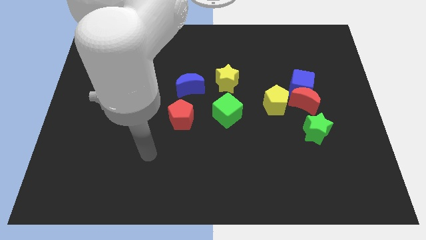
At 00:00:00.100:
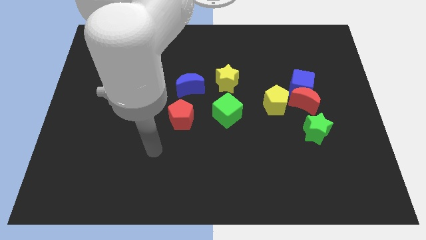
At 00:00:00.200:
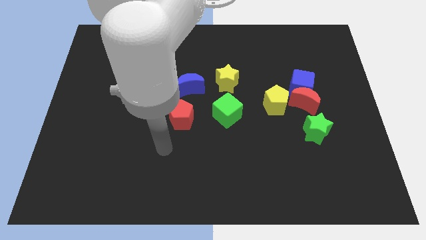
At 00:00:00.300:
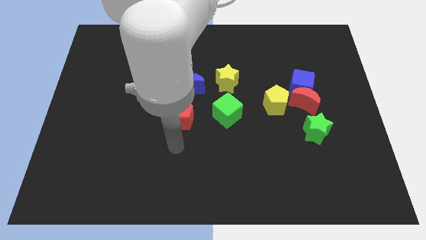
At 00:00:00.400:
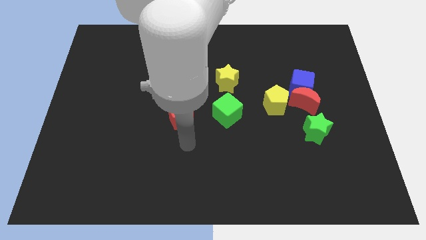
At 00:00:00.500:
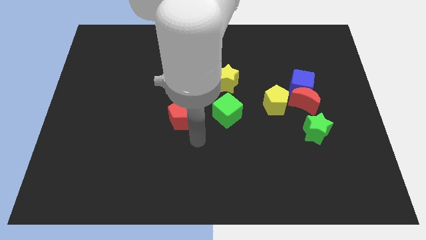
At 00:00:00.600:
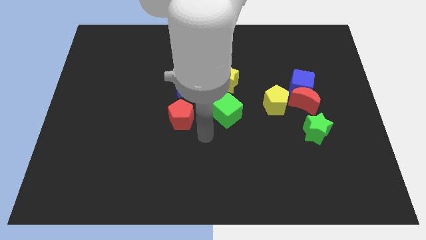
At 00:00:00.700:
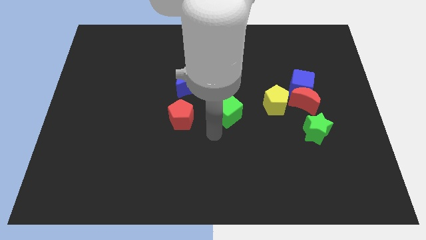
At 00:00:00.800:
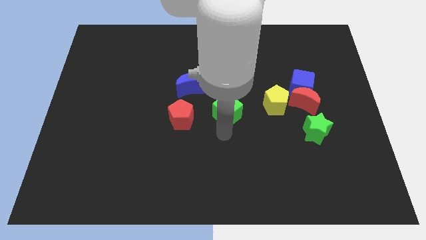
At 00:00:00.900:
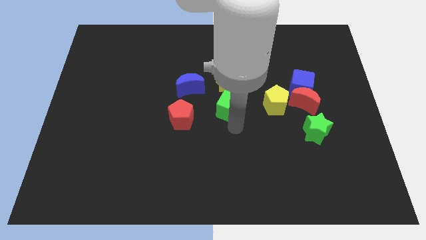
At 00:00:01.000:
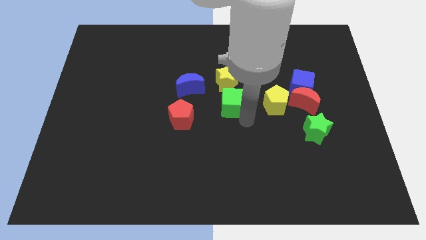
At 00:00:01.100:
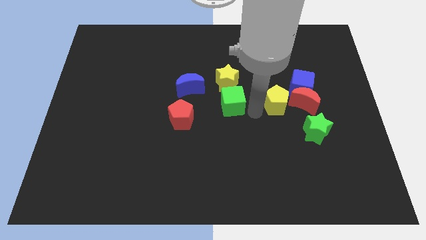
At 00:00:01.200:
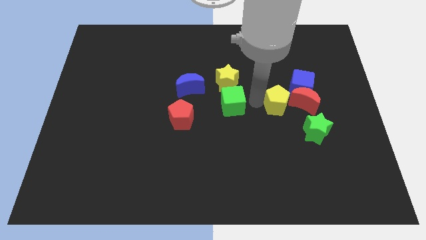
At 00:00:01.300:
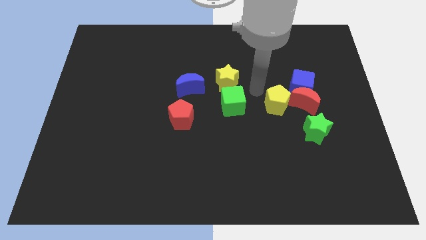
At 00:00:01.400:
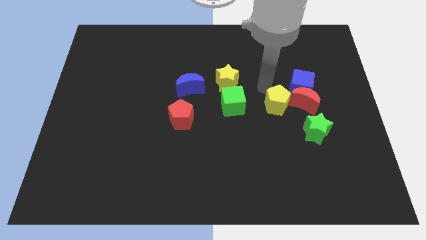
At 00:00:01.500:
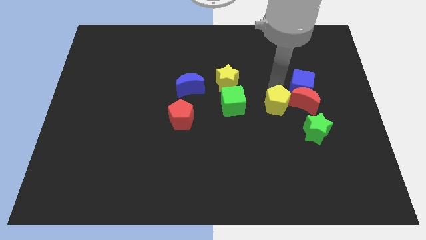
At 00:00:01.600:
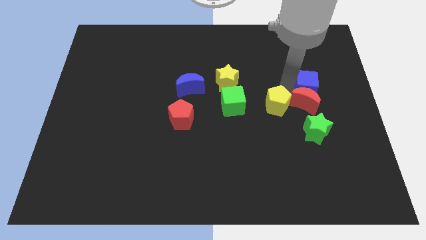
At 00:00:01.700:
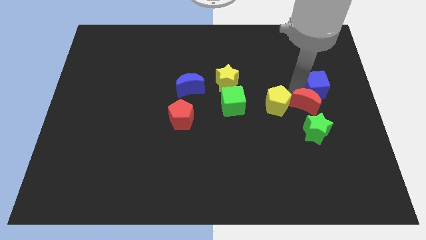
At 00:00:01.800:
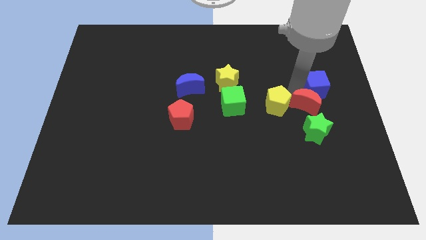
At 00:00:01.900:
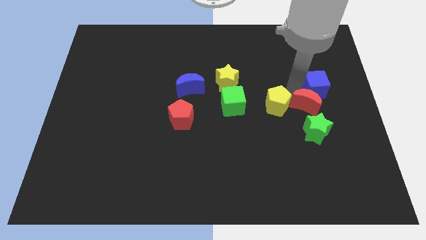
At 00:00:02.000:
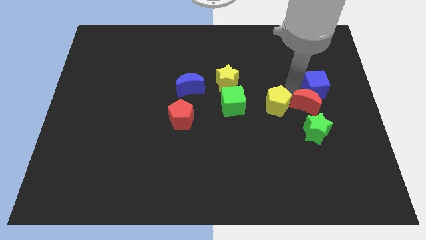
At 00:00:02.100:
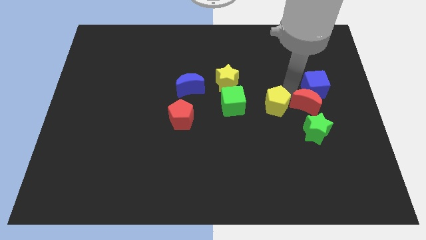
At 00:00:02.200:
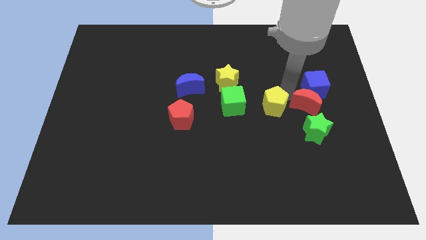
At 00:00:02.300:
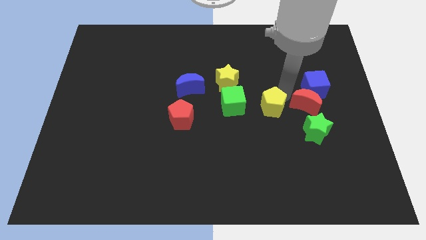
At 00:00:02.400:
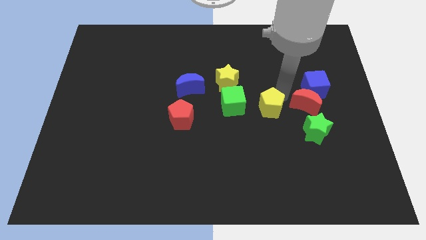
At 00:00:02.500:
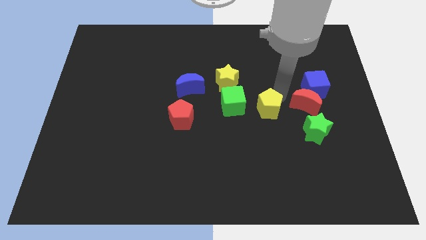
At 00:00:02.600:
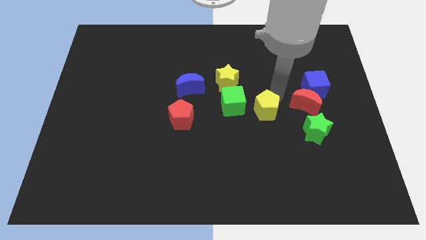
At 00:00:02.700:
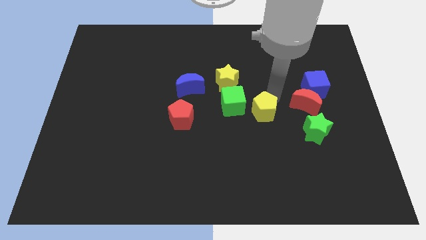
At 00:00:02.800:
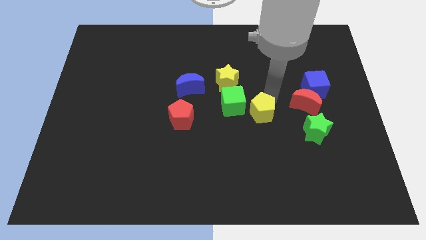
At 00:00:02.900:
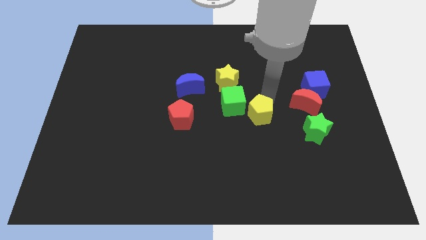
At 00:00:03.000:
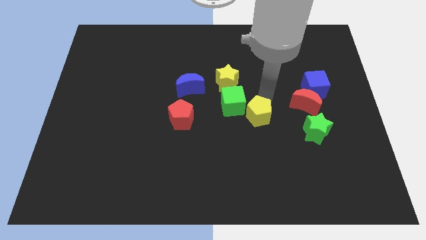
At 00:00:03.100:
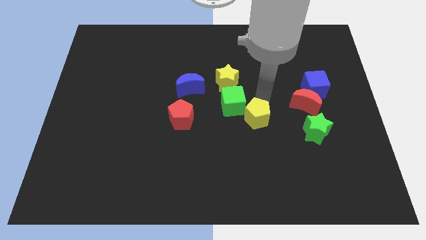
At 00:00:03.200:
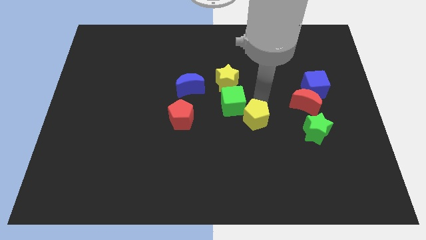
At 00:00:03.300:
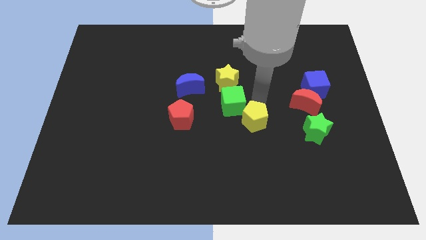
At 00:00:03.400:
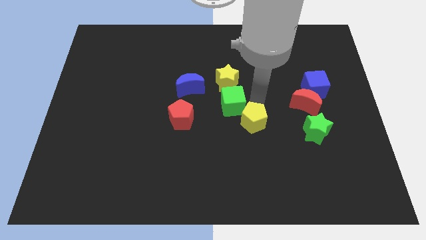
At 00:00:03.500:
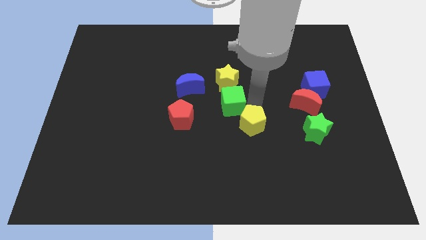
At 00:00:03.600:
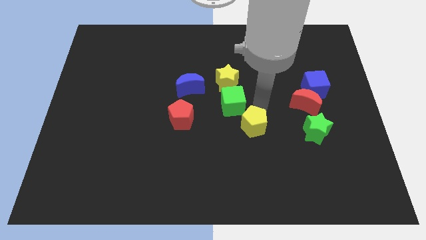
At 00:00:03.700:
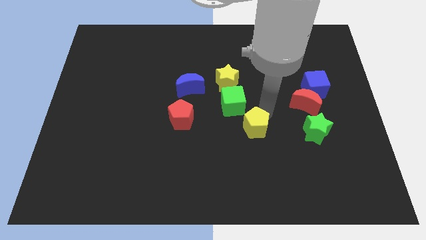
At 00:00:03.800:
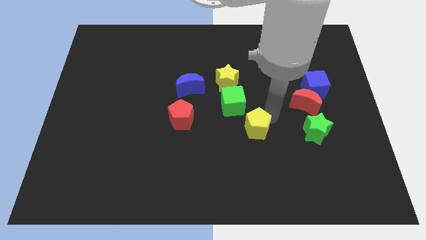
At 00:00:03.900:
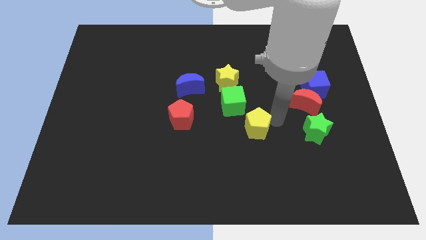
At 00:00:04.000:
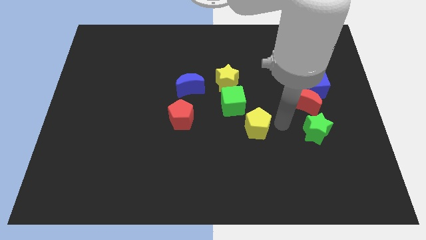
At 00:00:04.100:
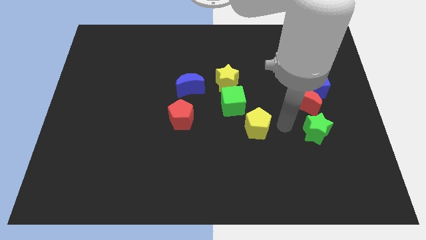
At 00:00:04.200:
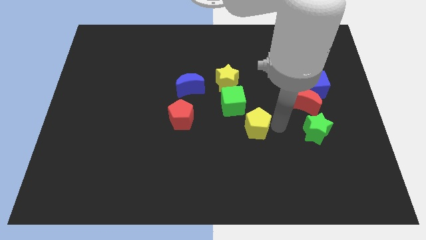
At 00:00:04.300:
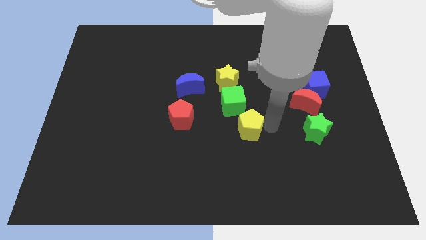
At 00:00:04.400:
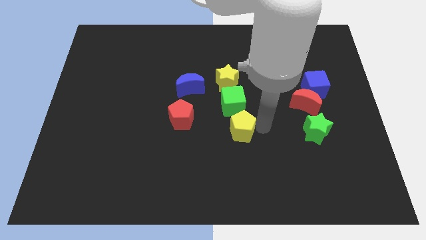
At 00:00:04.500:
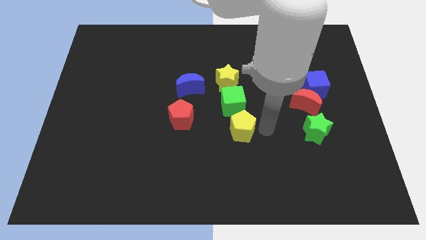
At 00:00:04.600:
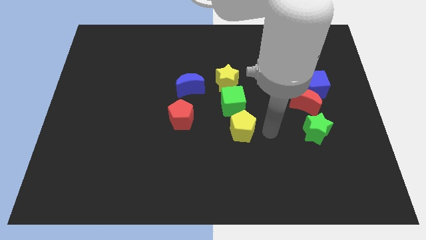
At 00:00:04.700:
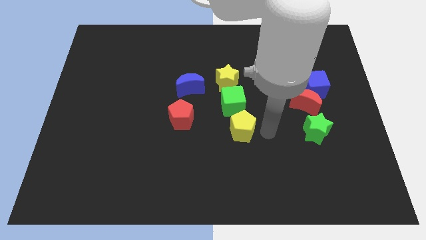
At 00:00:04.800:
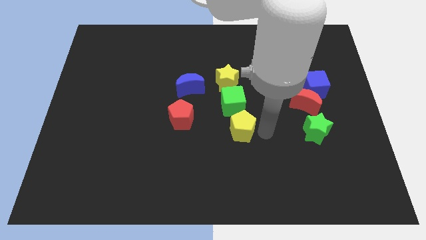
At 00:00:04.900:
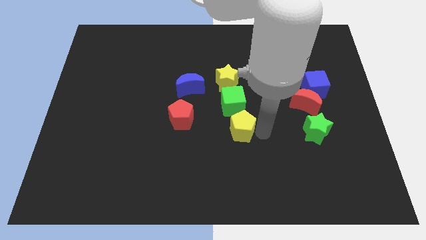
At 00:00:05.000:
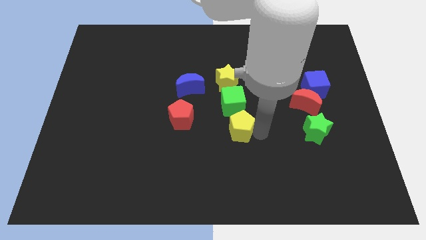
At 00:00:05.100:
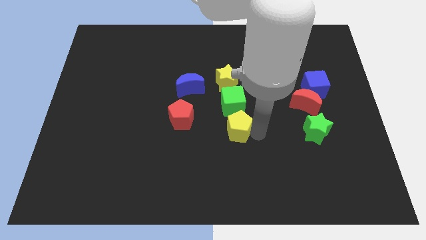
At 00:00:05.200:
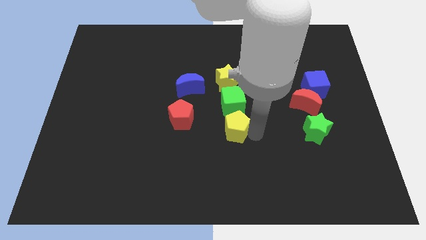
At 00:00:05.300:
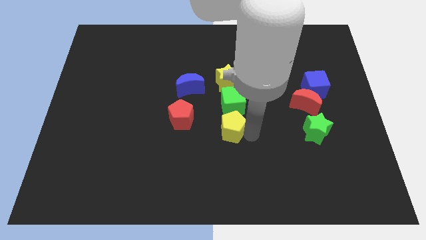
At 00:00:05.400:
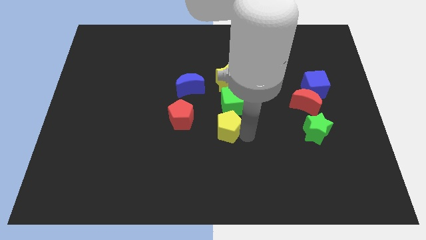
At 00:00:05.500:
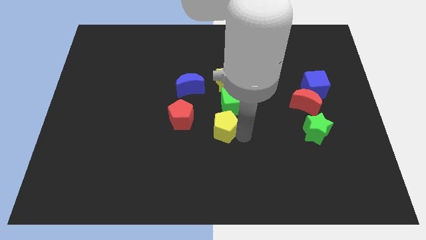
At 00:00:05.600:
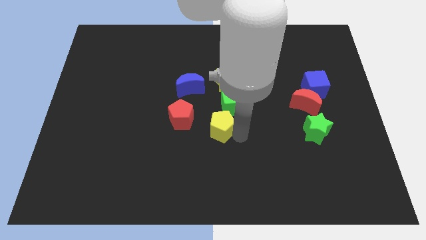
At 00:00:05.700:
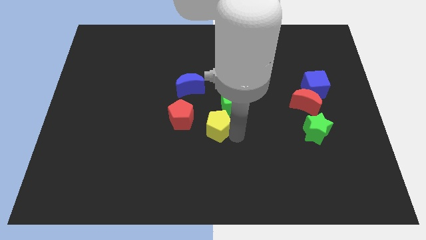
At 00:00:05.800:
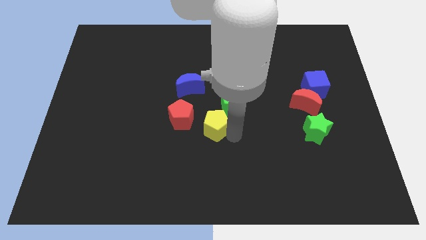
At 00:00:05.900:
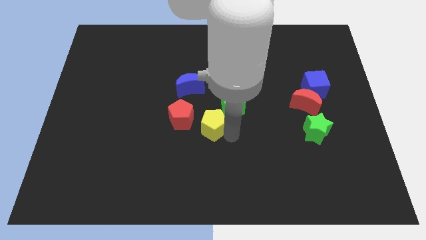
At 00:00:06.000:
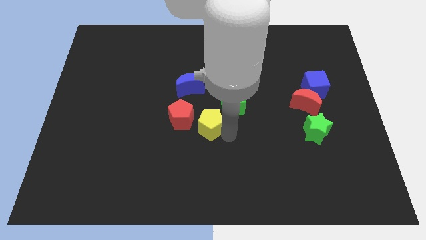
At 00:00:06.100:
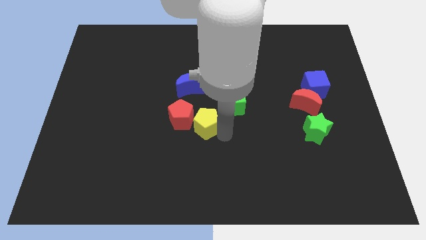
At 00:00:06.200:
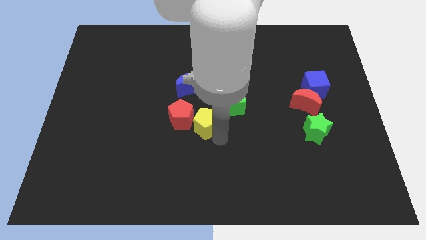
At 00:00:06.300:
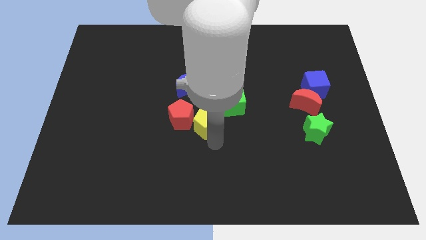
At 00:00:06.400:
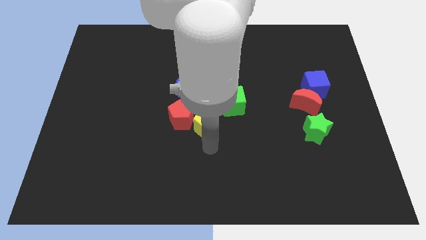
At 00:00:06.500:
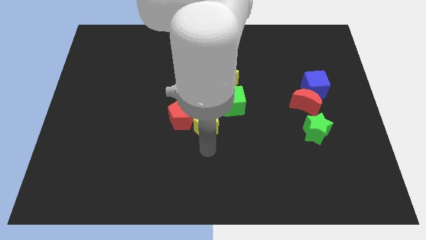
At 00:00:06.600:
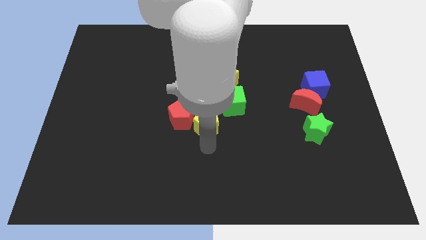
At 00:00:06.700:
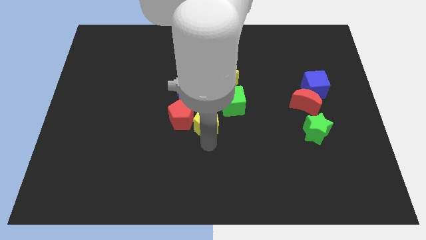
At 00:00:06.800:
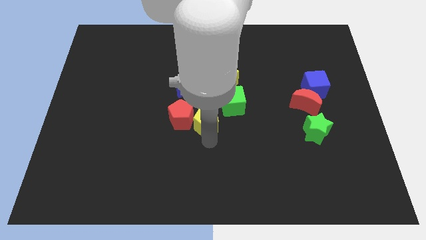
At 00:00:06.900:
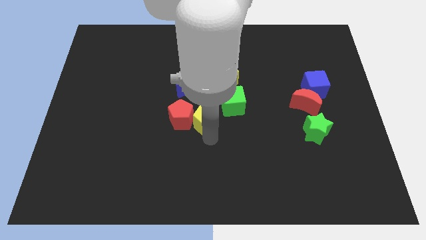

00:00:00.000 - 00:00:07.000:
slide the yellow pentagon to the top right of the red pentagon
